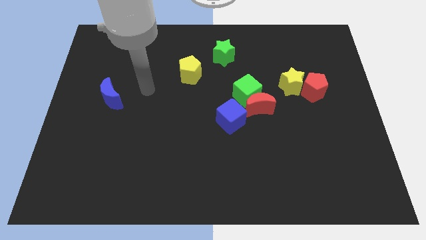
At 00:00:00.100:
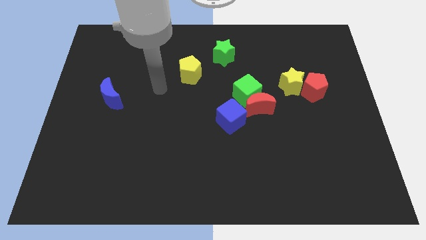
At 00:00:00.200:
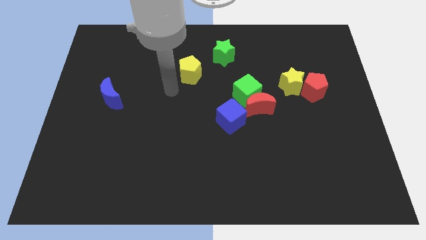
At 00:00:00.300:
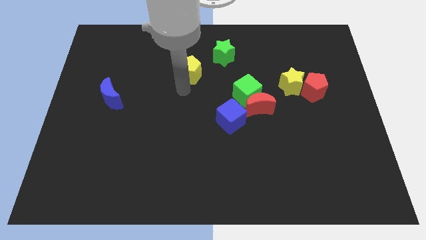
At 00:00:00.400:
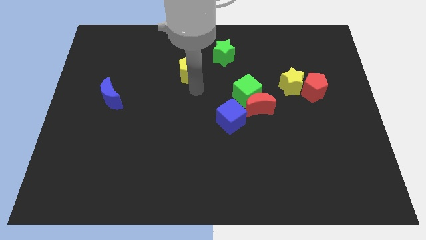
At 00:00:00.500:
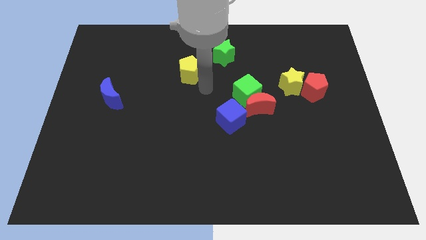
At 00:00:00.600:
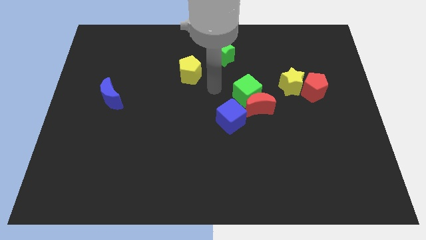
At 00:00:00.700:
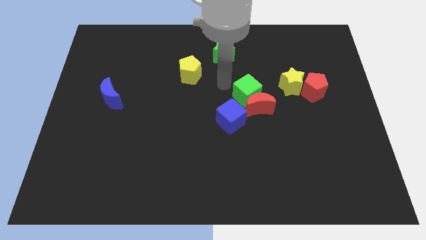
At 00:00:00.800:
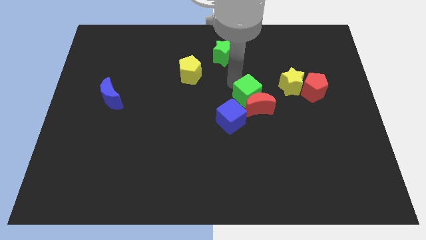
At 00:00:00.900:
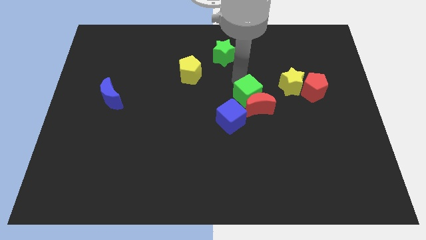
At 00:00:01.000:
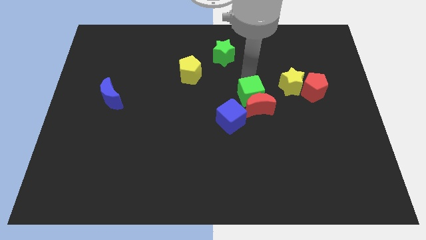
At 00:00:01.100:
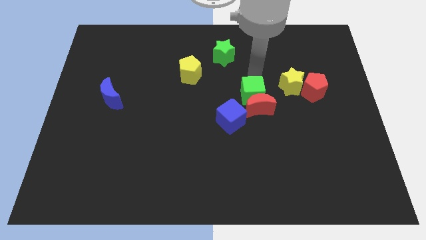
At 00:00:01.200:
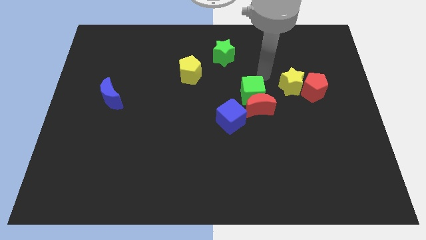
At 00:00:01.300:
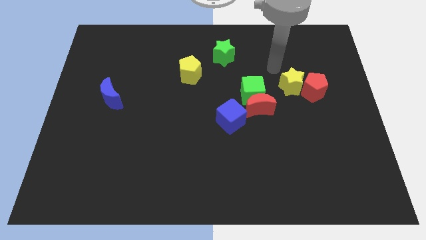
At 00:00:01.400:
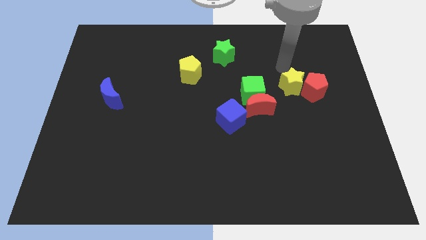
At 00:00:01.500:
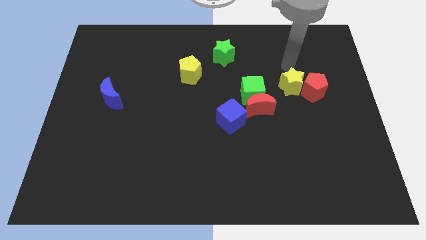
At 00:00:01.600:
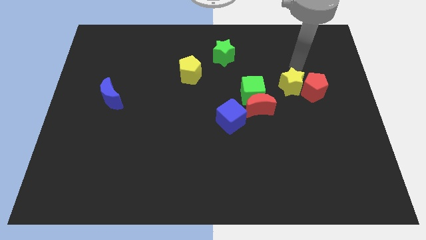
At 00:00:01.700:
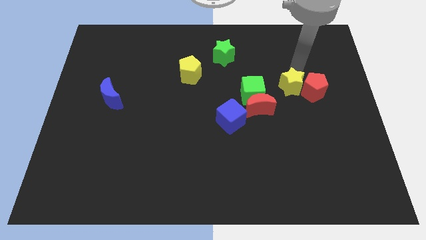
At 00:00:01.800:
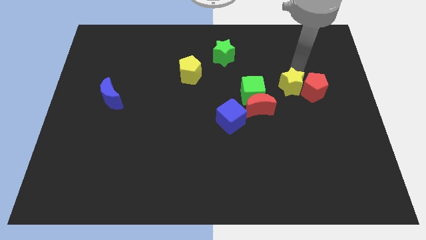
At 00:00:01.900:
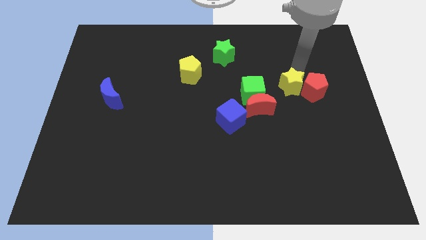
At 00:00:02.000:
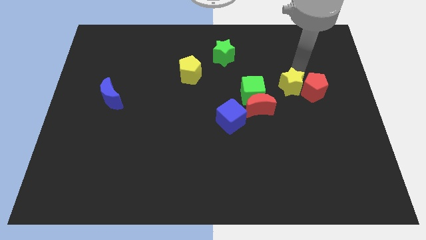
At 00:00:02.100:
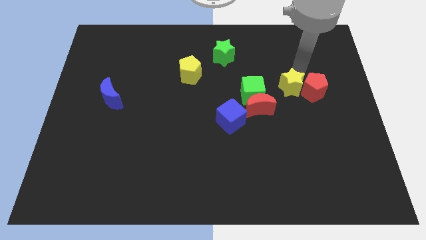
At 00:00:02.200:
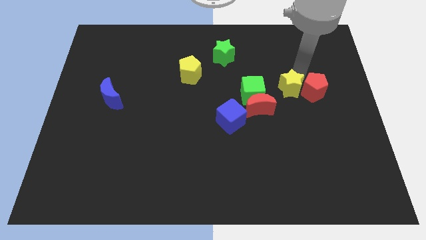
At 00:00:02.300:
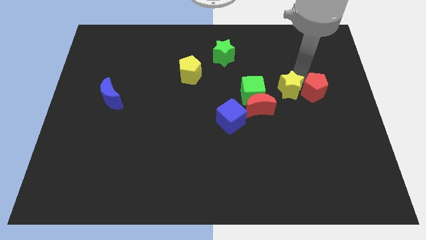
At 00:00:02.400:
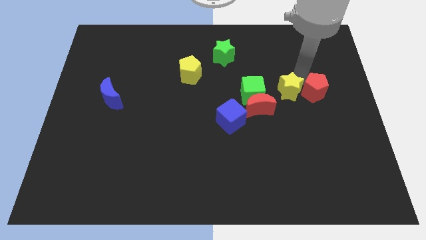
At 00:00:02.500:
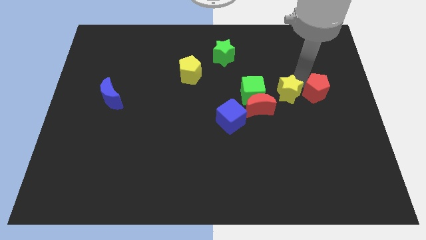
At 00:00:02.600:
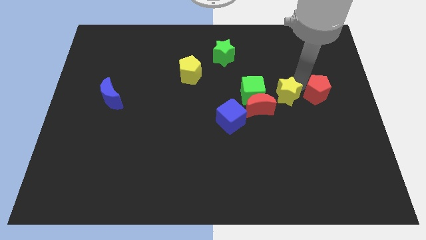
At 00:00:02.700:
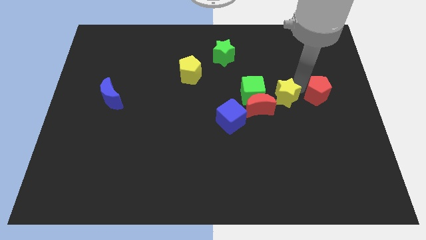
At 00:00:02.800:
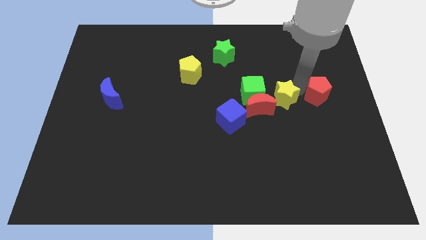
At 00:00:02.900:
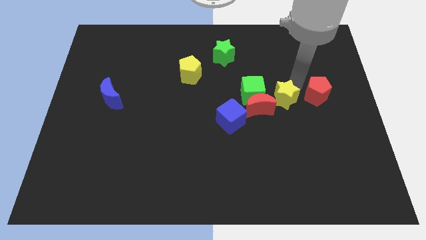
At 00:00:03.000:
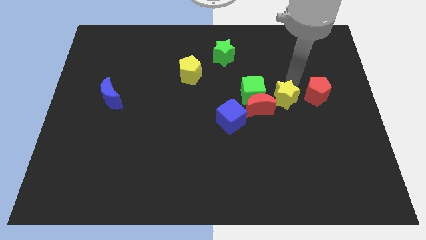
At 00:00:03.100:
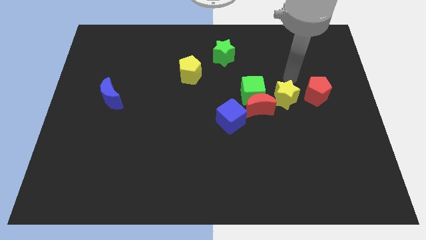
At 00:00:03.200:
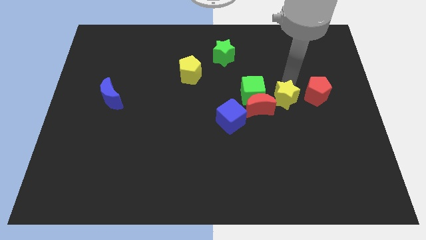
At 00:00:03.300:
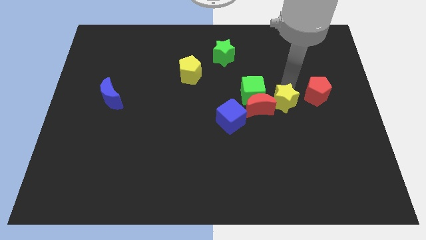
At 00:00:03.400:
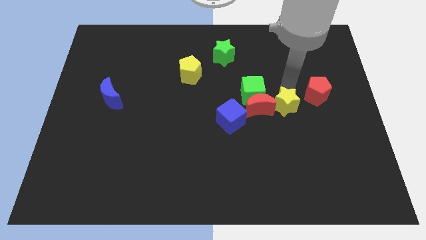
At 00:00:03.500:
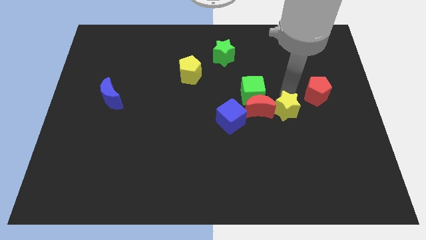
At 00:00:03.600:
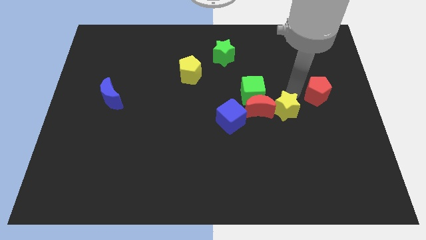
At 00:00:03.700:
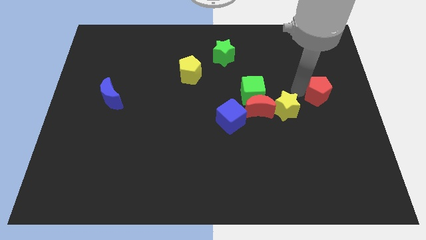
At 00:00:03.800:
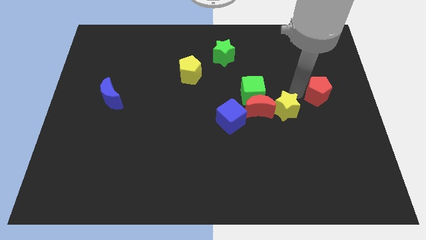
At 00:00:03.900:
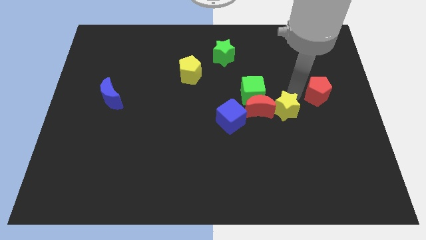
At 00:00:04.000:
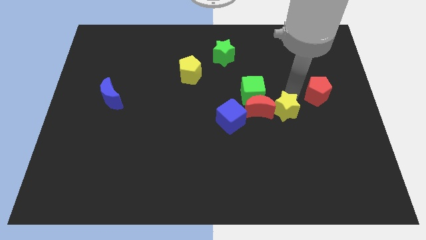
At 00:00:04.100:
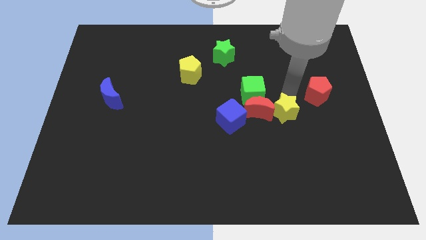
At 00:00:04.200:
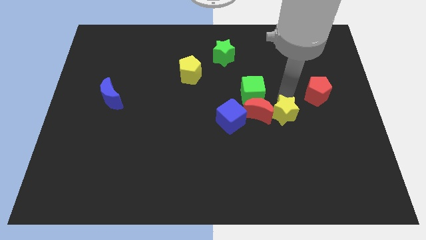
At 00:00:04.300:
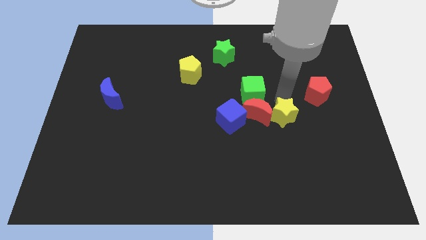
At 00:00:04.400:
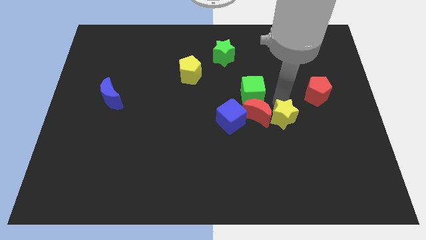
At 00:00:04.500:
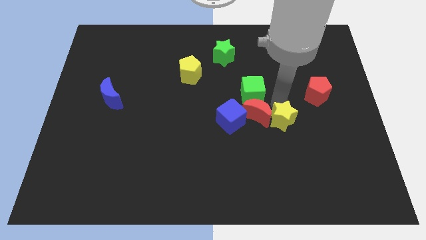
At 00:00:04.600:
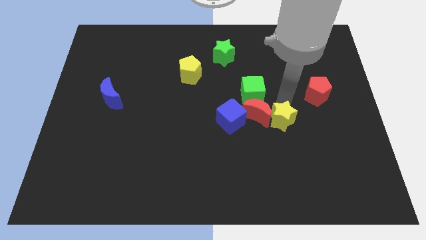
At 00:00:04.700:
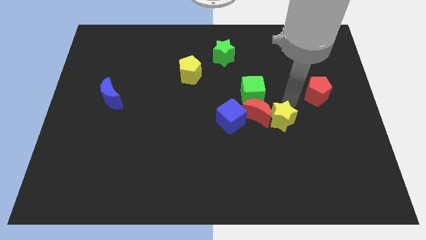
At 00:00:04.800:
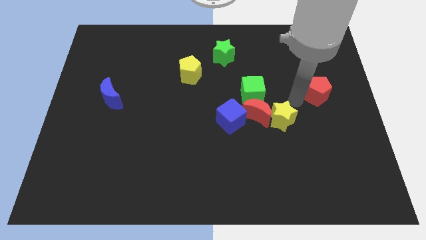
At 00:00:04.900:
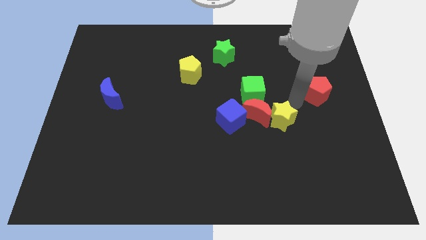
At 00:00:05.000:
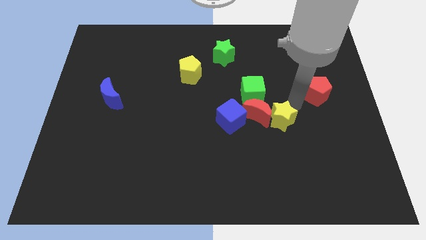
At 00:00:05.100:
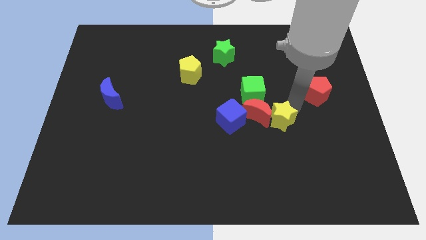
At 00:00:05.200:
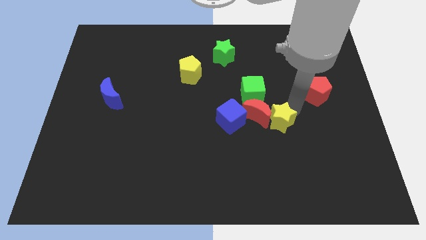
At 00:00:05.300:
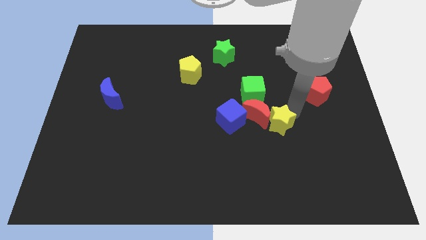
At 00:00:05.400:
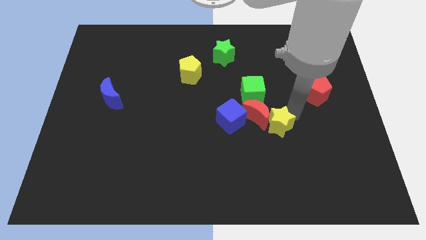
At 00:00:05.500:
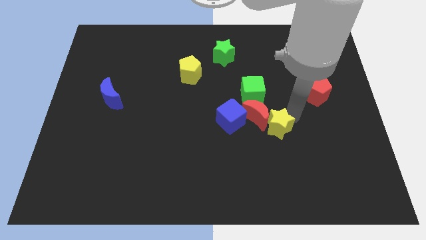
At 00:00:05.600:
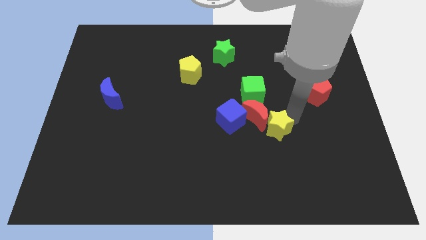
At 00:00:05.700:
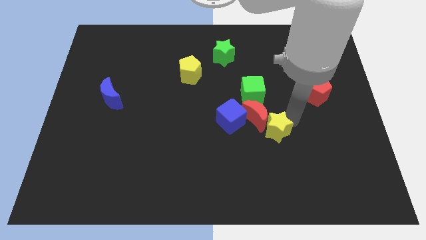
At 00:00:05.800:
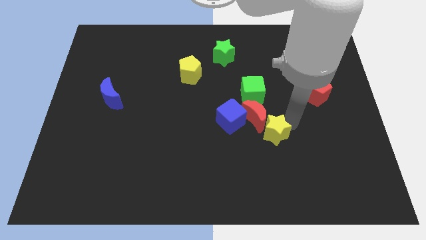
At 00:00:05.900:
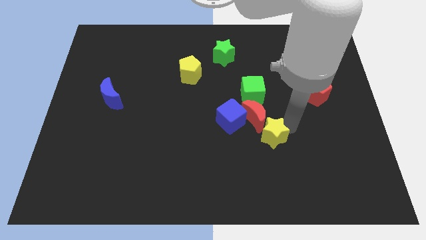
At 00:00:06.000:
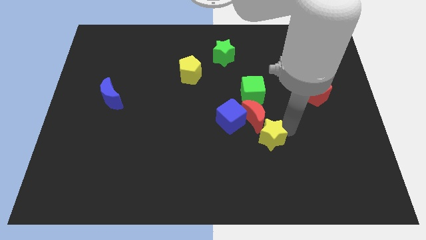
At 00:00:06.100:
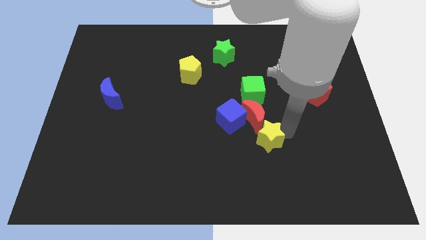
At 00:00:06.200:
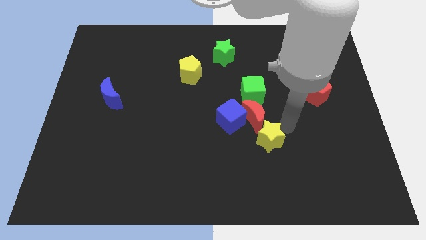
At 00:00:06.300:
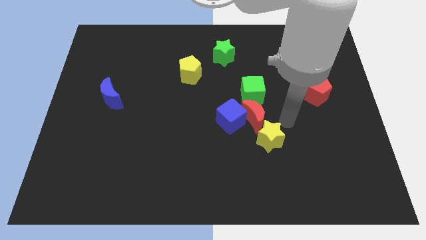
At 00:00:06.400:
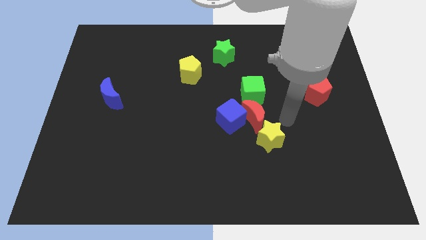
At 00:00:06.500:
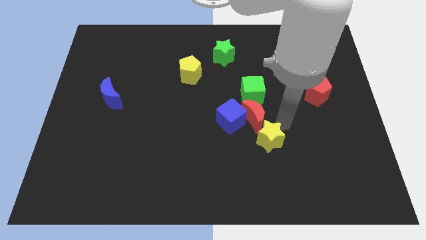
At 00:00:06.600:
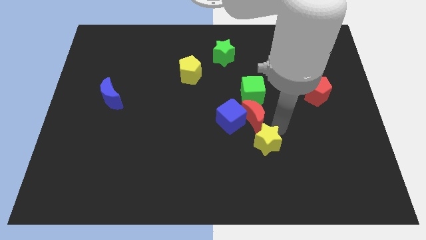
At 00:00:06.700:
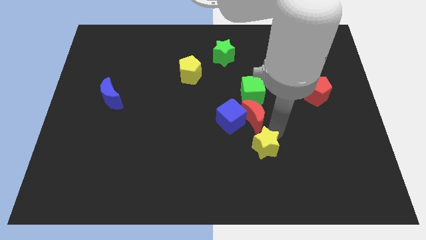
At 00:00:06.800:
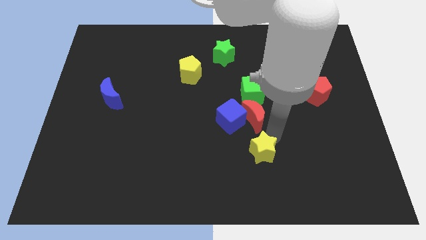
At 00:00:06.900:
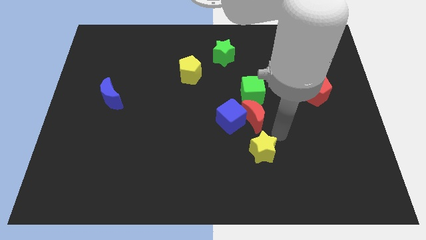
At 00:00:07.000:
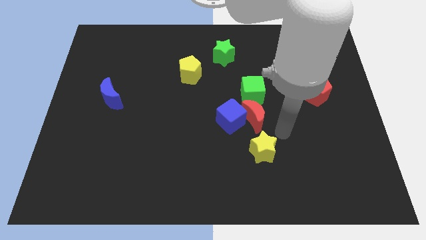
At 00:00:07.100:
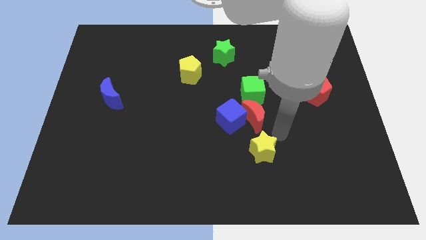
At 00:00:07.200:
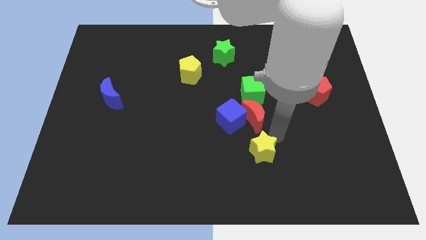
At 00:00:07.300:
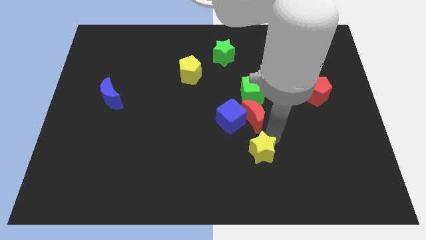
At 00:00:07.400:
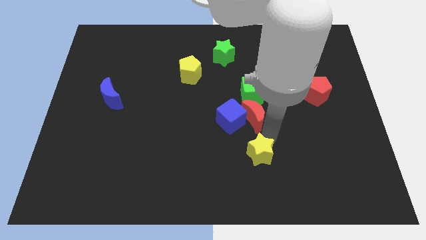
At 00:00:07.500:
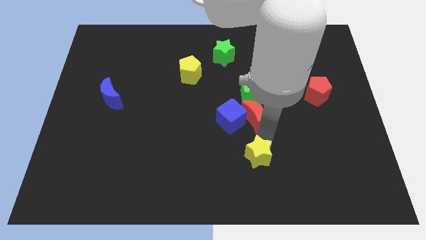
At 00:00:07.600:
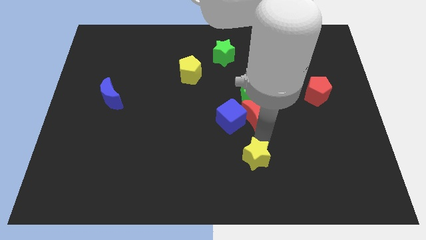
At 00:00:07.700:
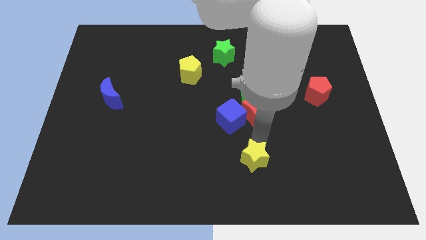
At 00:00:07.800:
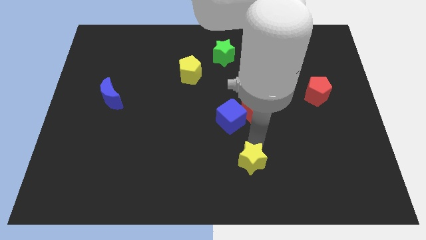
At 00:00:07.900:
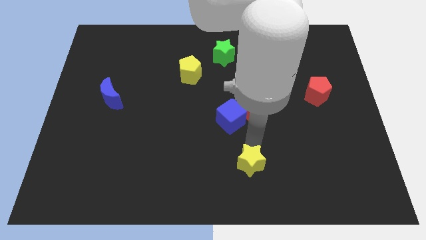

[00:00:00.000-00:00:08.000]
push the yellow star to the bottom
